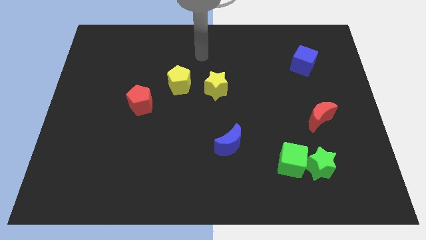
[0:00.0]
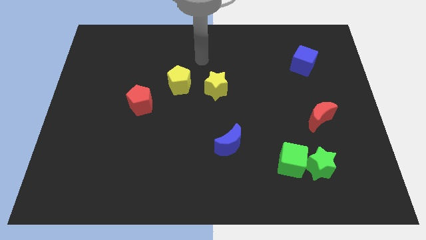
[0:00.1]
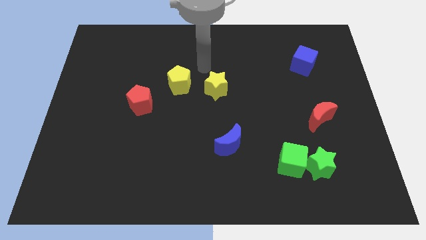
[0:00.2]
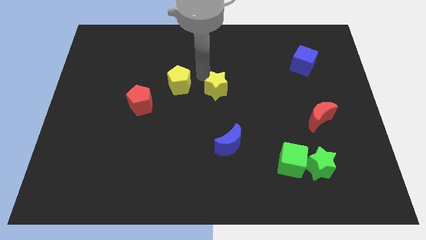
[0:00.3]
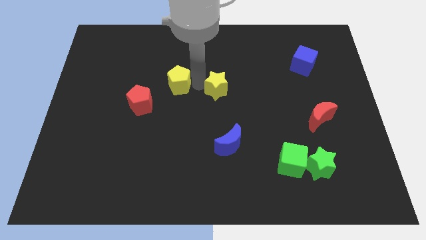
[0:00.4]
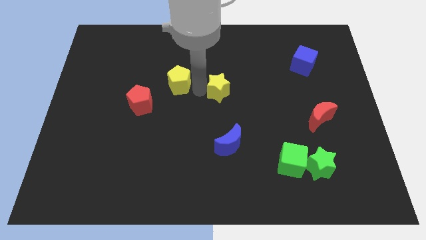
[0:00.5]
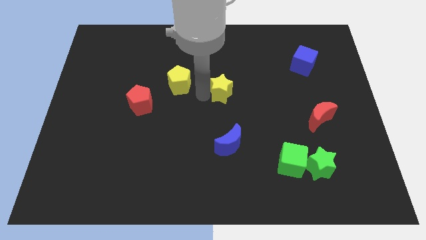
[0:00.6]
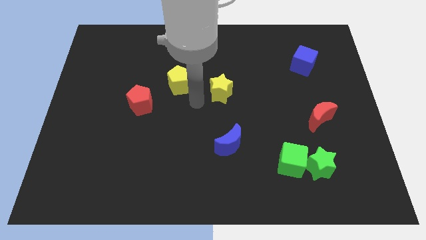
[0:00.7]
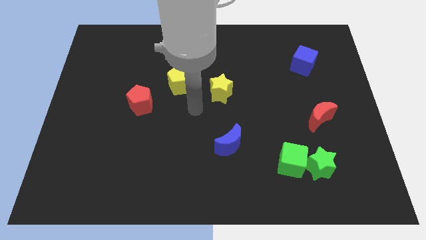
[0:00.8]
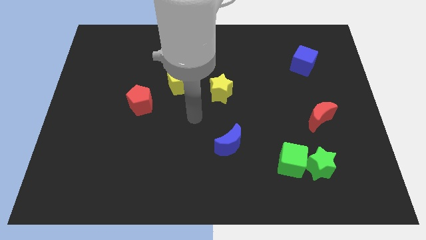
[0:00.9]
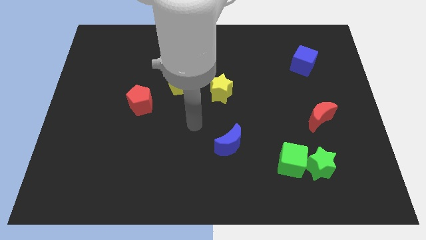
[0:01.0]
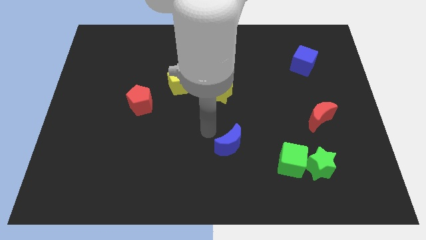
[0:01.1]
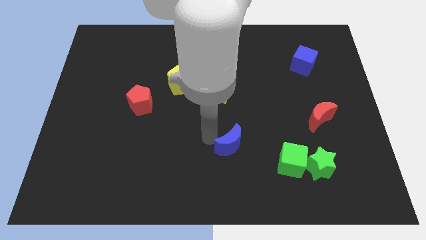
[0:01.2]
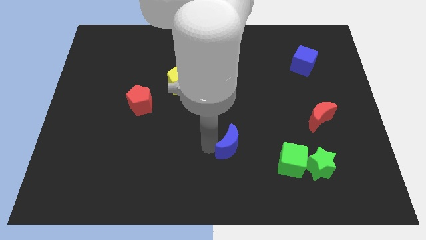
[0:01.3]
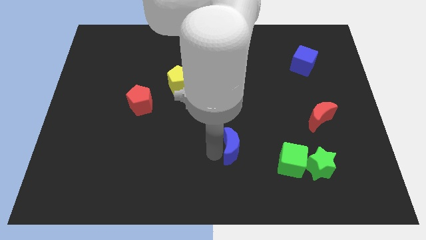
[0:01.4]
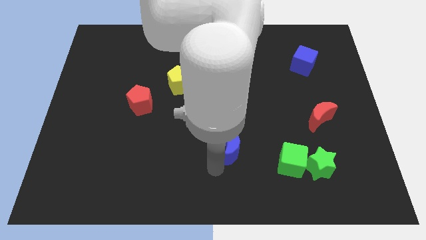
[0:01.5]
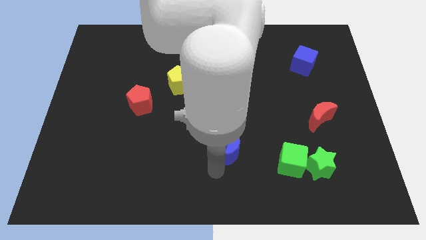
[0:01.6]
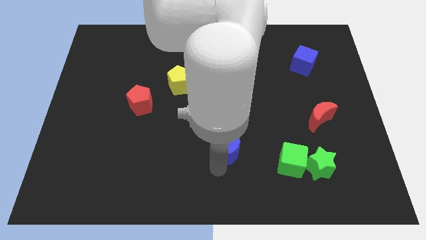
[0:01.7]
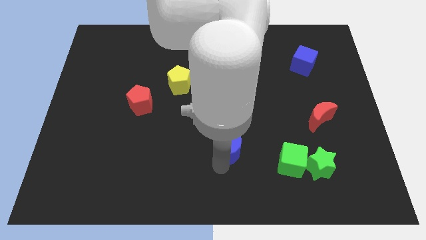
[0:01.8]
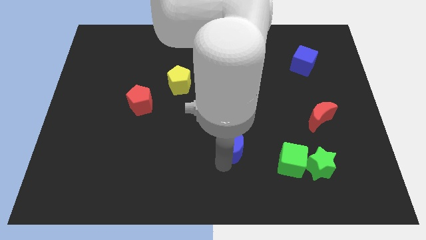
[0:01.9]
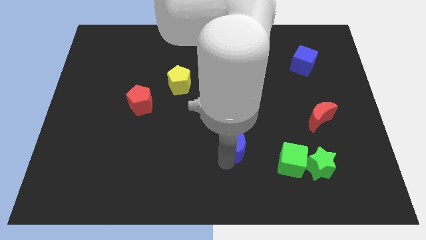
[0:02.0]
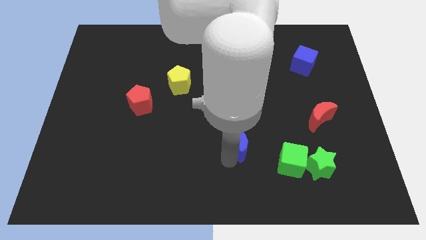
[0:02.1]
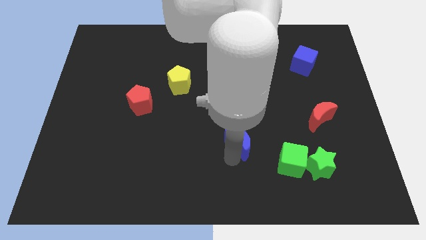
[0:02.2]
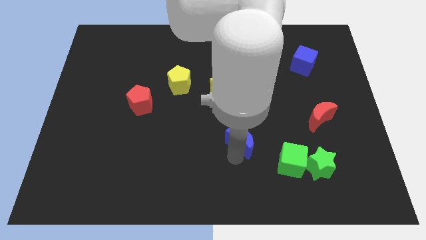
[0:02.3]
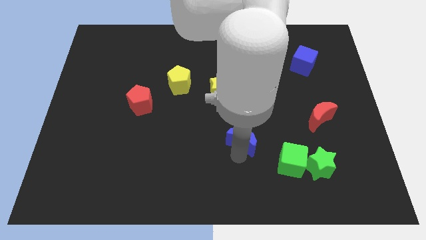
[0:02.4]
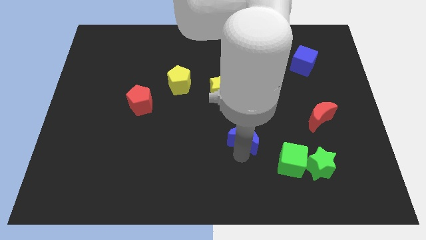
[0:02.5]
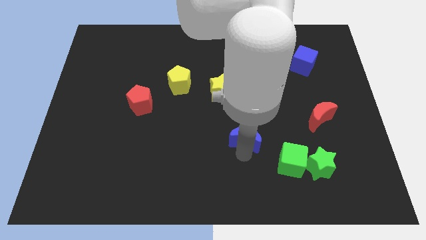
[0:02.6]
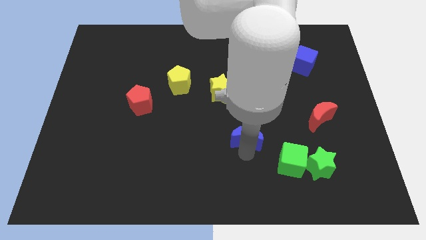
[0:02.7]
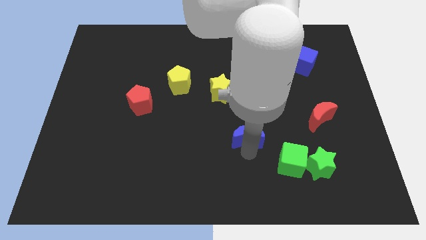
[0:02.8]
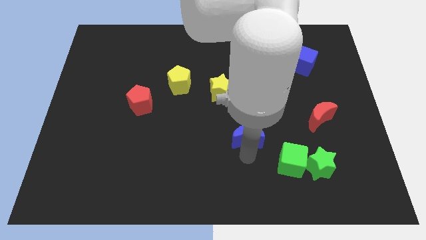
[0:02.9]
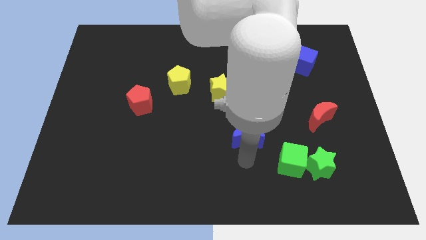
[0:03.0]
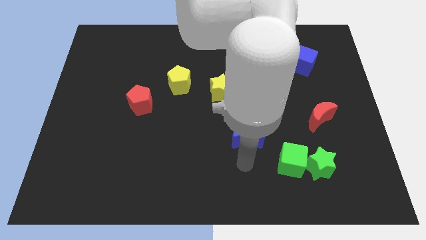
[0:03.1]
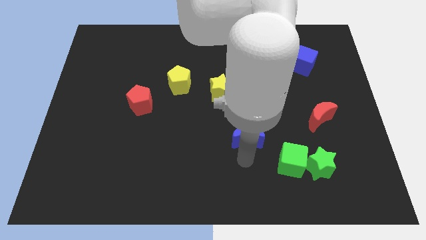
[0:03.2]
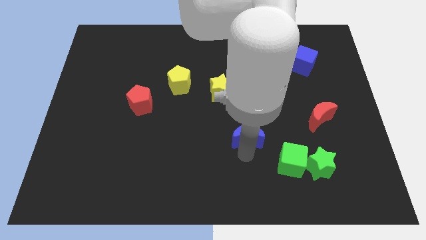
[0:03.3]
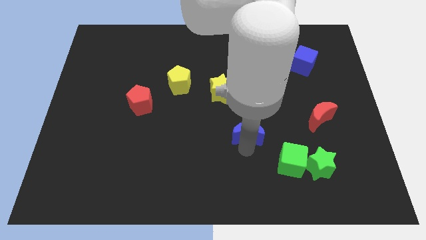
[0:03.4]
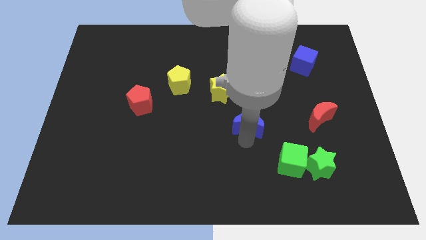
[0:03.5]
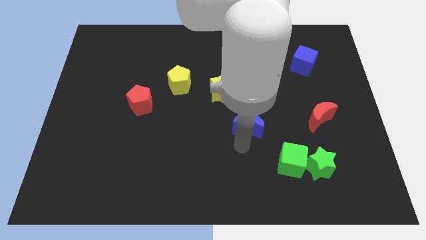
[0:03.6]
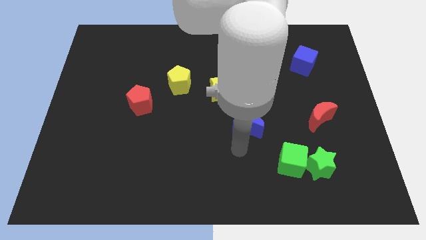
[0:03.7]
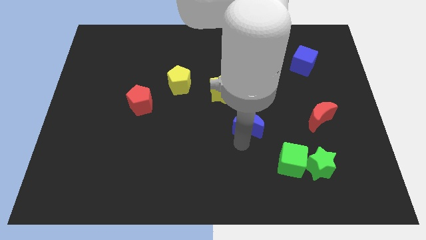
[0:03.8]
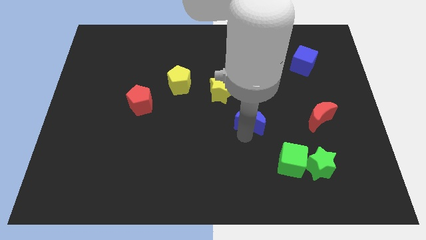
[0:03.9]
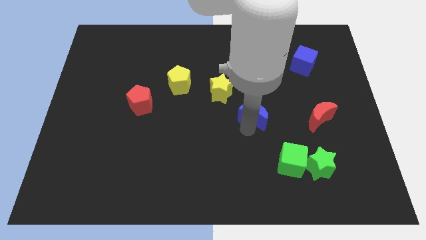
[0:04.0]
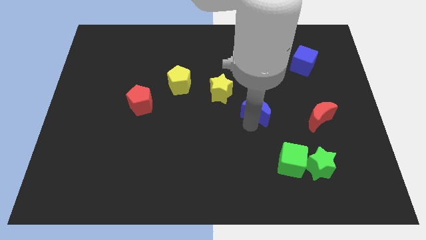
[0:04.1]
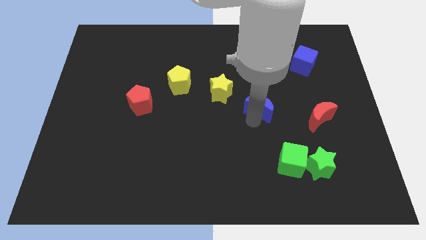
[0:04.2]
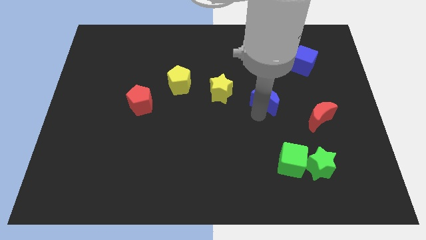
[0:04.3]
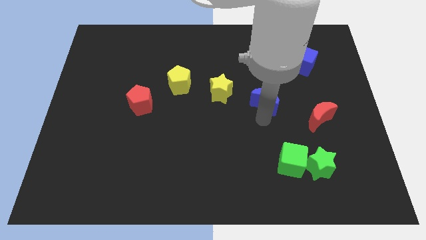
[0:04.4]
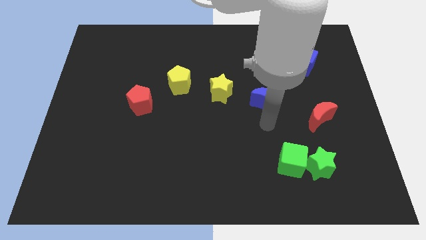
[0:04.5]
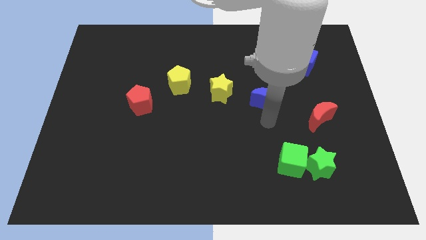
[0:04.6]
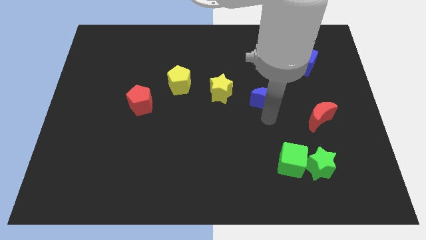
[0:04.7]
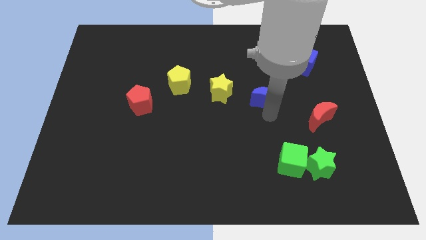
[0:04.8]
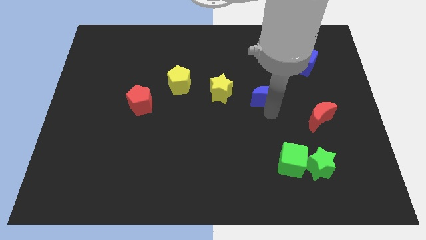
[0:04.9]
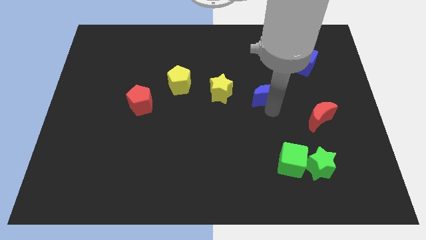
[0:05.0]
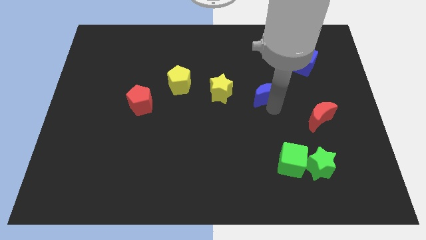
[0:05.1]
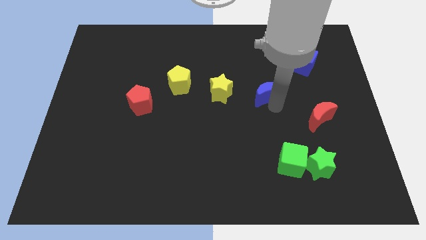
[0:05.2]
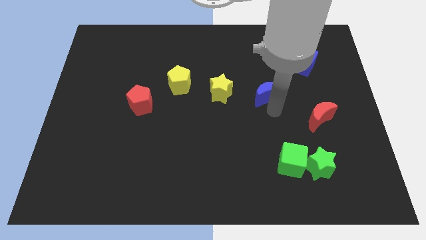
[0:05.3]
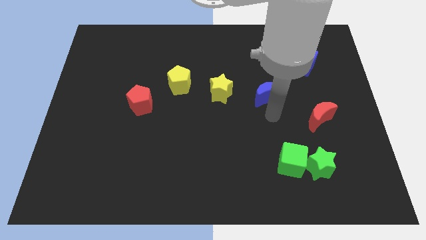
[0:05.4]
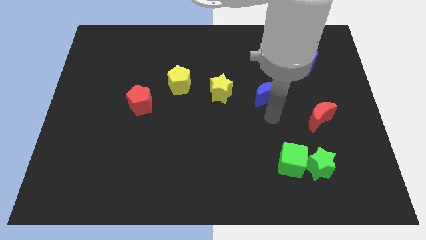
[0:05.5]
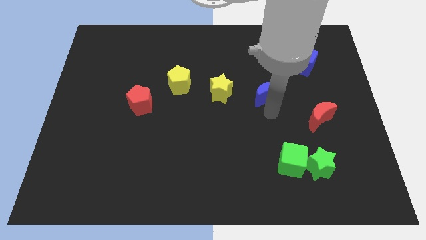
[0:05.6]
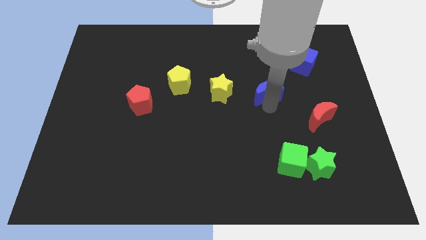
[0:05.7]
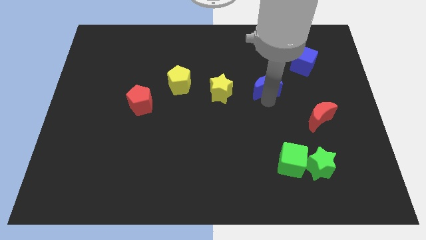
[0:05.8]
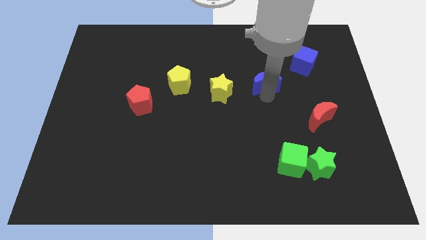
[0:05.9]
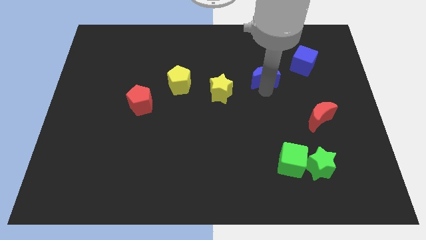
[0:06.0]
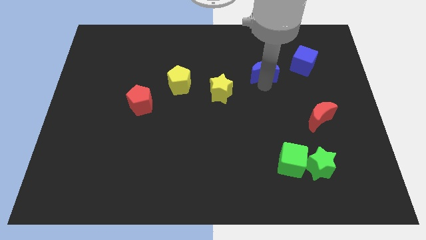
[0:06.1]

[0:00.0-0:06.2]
slide the blue moon to the left of the blue cube
